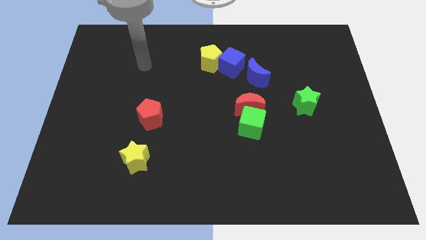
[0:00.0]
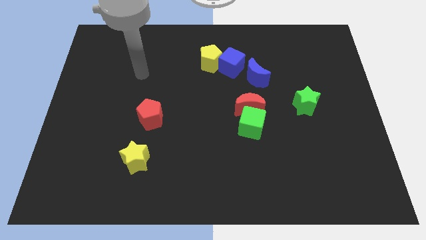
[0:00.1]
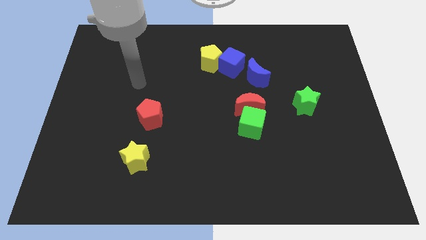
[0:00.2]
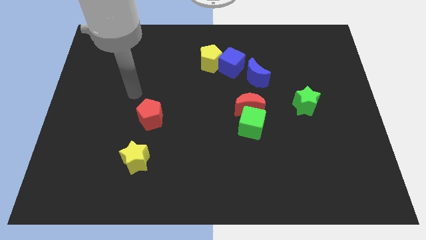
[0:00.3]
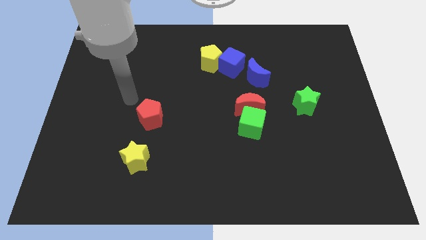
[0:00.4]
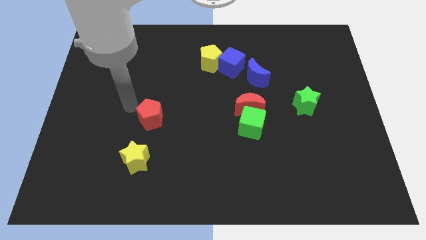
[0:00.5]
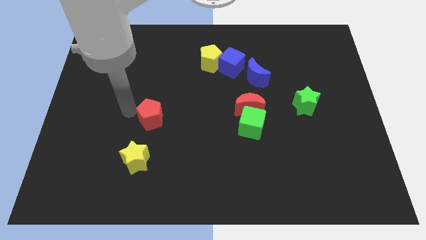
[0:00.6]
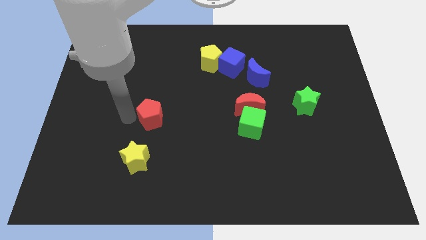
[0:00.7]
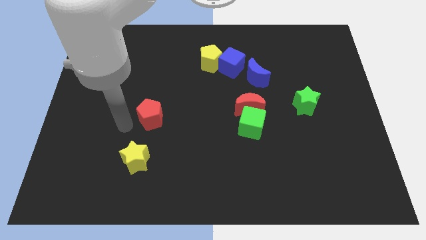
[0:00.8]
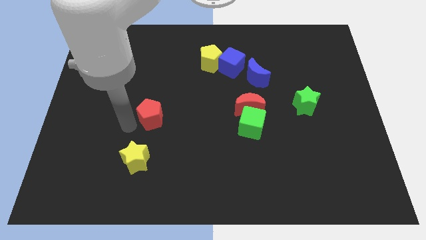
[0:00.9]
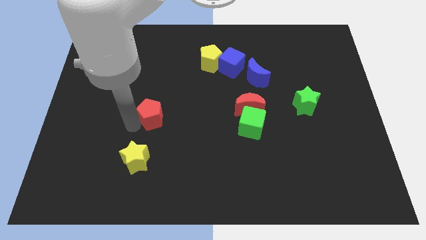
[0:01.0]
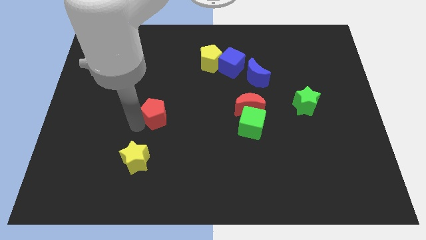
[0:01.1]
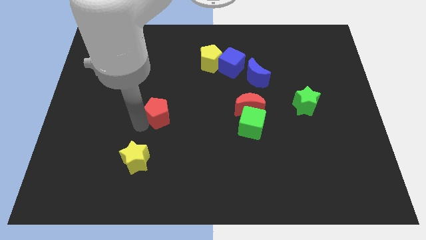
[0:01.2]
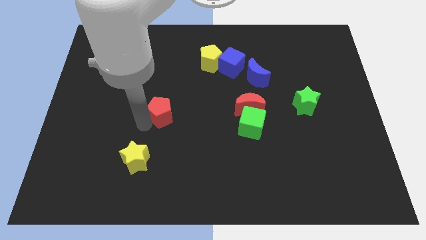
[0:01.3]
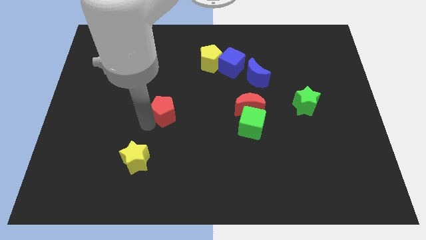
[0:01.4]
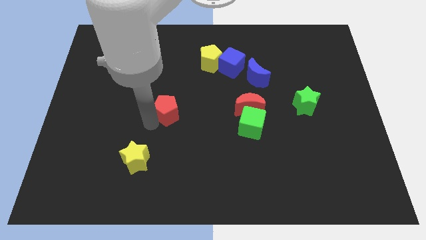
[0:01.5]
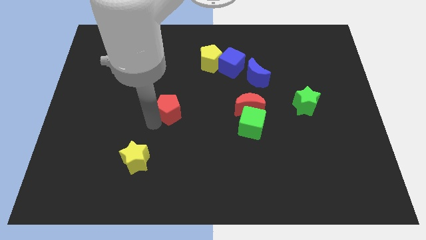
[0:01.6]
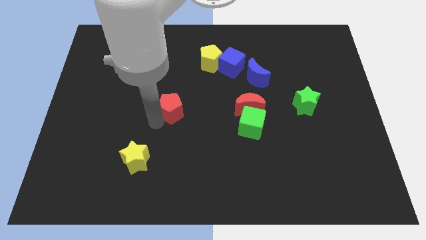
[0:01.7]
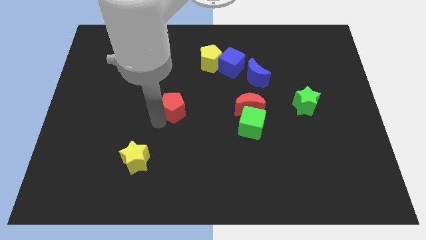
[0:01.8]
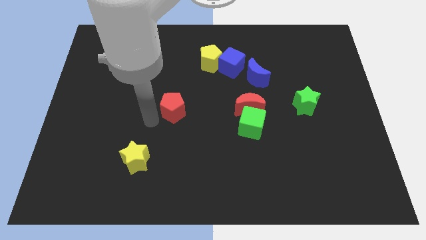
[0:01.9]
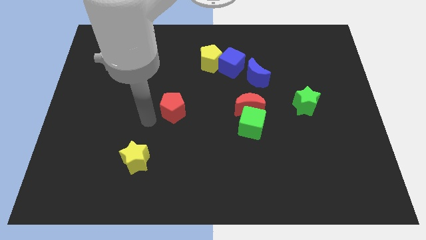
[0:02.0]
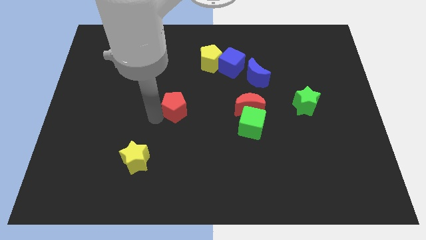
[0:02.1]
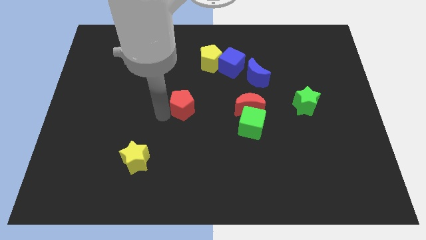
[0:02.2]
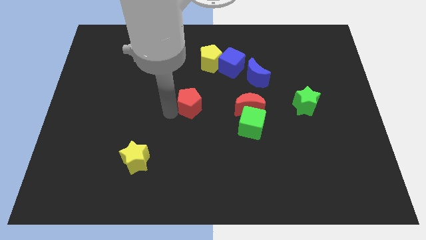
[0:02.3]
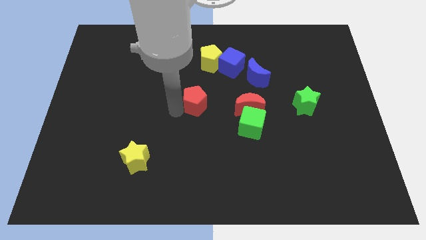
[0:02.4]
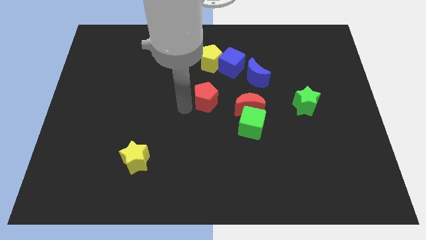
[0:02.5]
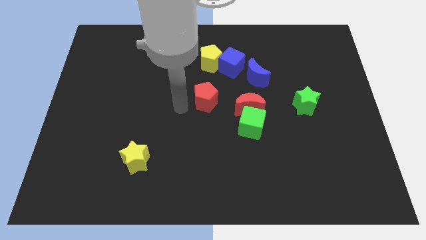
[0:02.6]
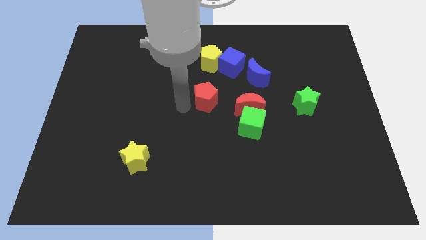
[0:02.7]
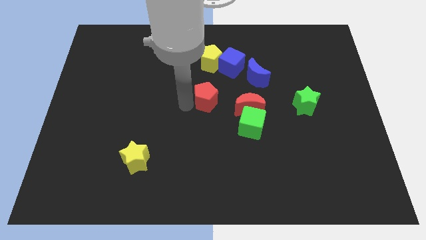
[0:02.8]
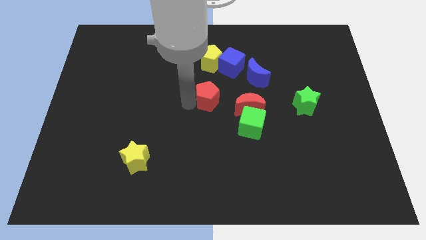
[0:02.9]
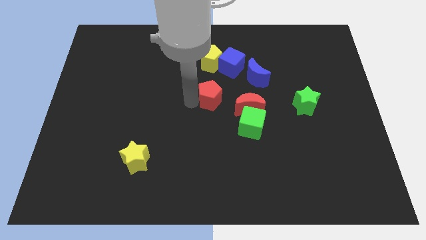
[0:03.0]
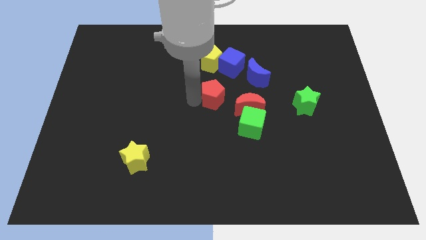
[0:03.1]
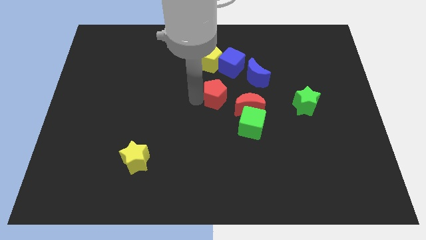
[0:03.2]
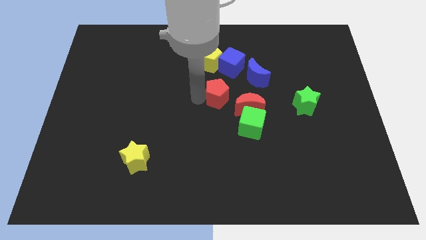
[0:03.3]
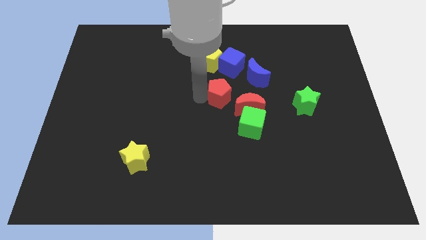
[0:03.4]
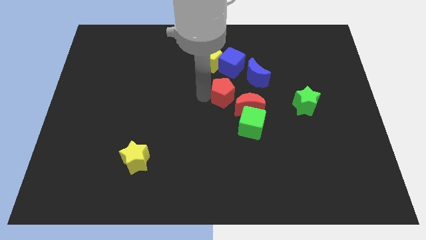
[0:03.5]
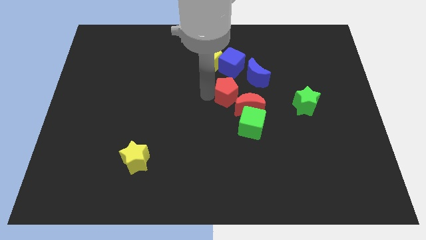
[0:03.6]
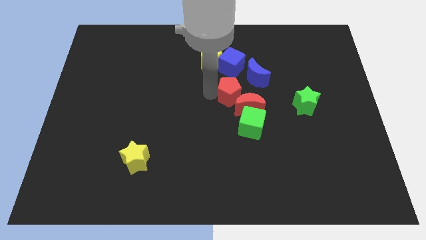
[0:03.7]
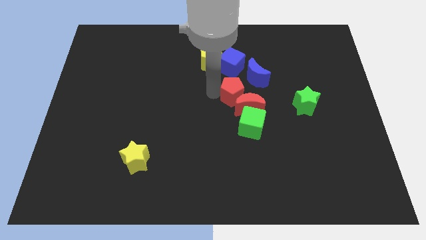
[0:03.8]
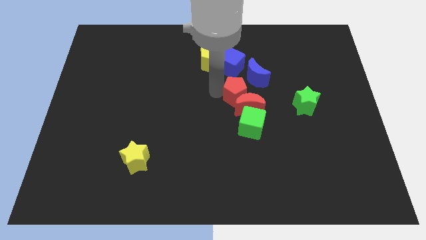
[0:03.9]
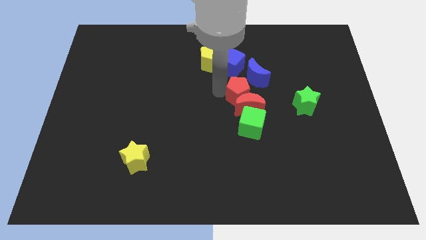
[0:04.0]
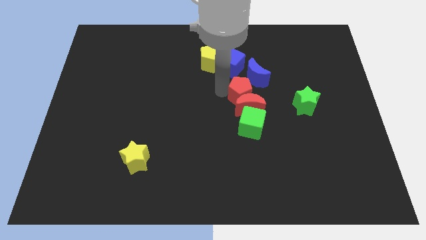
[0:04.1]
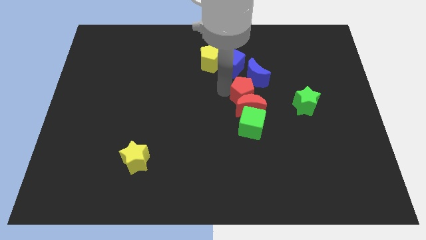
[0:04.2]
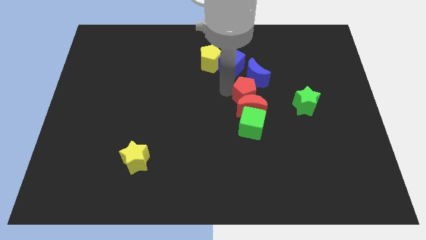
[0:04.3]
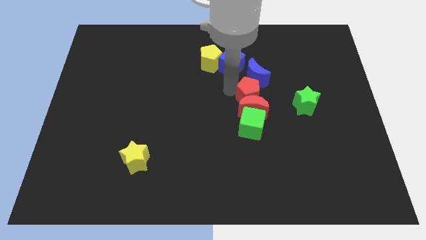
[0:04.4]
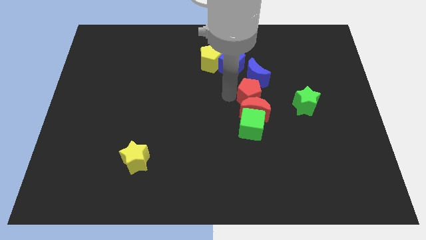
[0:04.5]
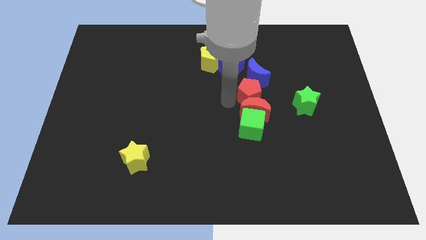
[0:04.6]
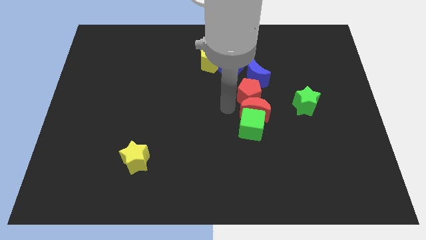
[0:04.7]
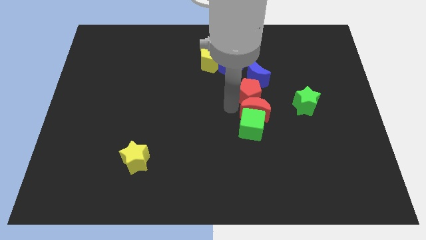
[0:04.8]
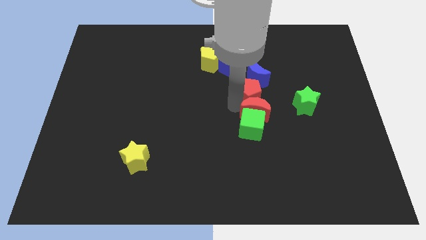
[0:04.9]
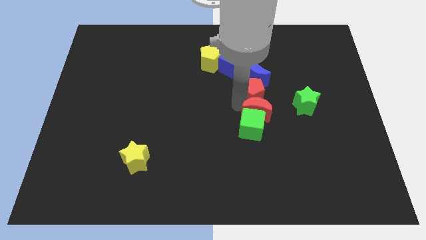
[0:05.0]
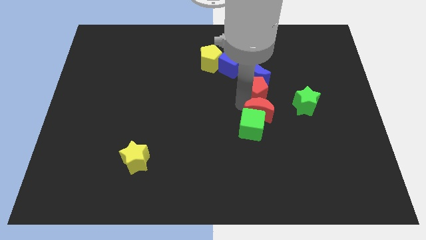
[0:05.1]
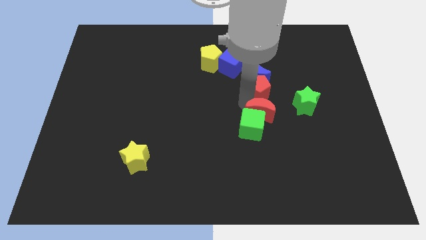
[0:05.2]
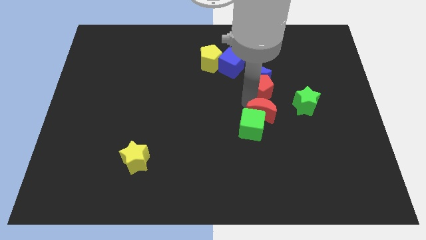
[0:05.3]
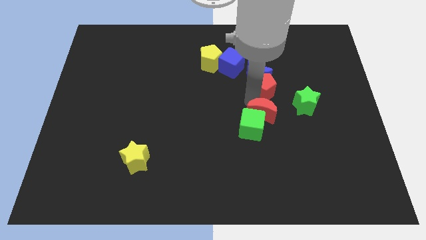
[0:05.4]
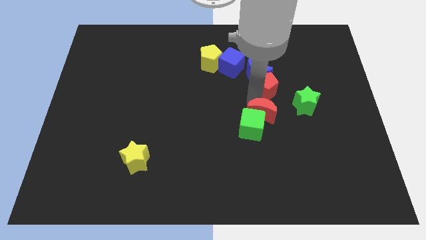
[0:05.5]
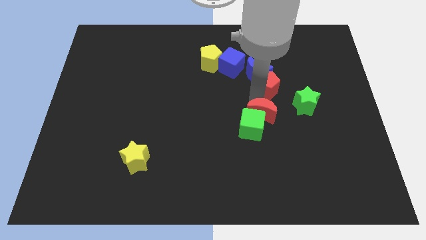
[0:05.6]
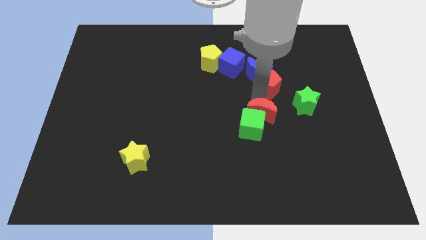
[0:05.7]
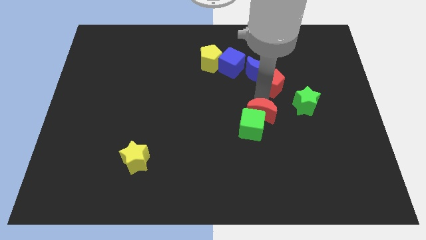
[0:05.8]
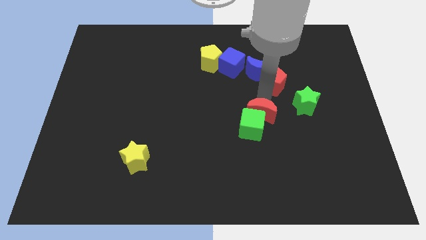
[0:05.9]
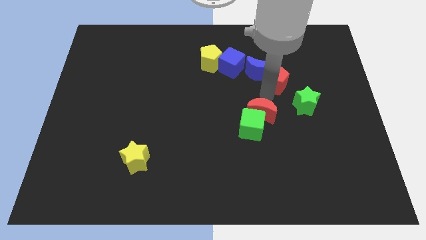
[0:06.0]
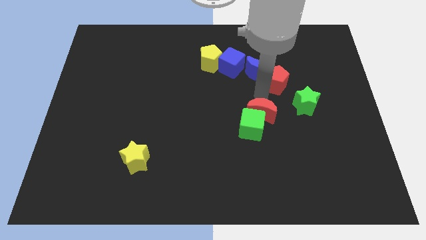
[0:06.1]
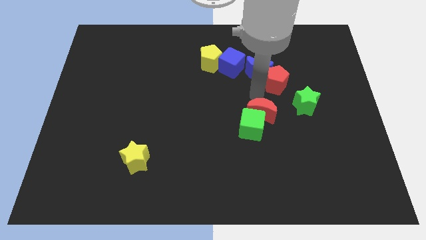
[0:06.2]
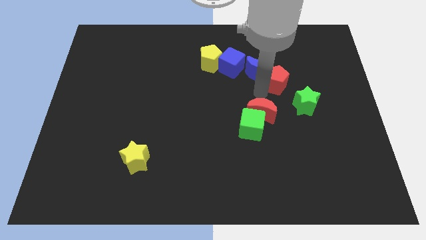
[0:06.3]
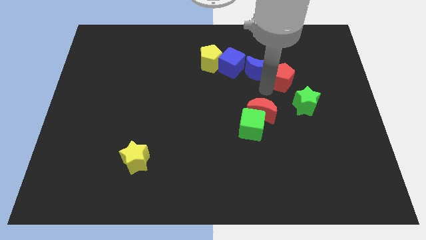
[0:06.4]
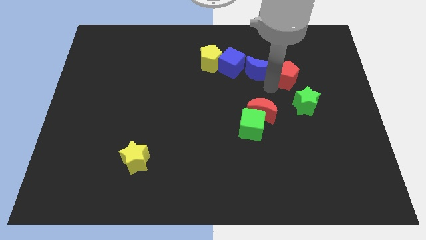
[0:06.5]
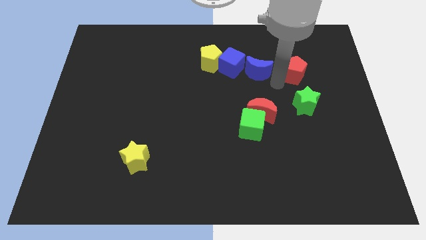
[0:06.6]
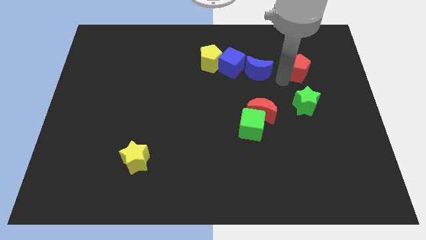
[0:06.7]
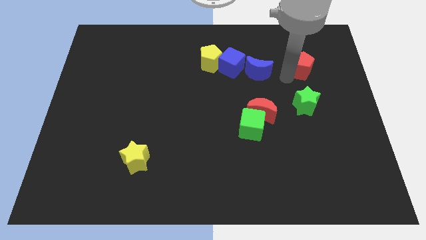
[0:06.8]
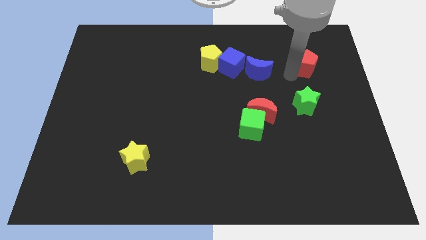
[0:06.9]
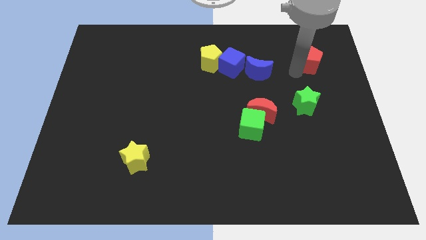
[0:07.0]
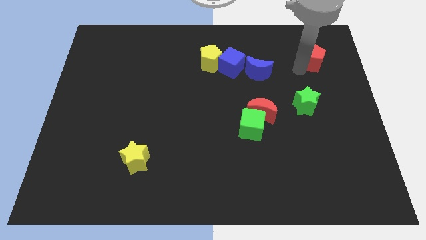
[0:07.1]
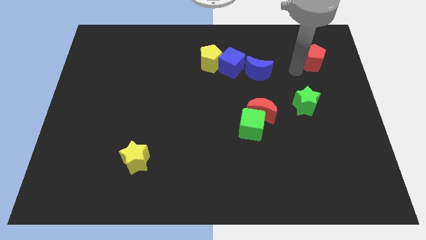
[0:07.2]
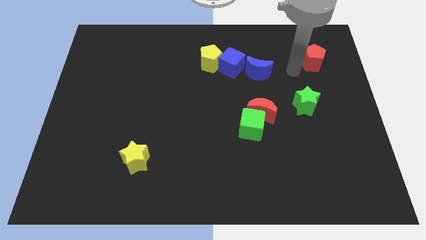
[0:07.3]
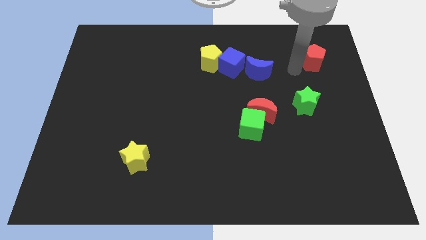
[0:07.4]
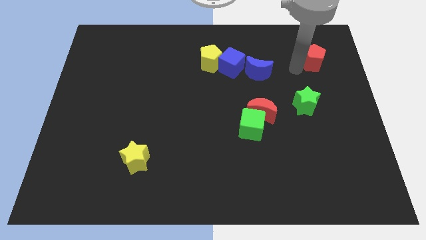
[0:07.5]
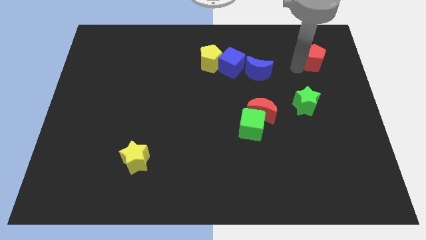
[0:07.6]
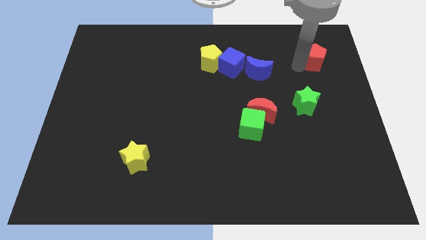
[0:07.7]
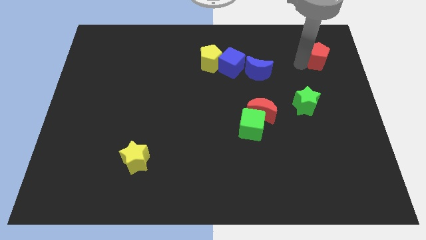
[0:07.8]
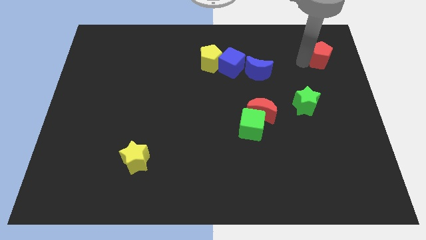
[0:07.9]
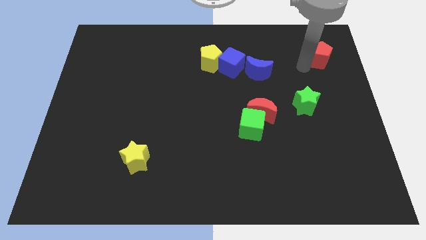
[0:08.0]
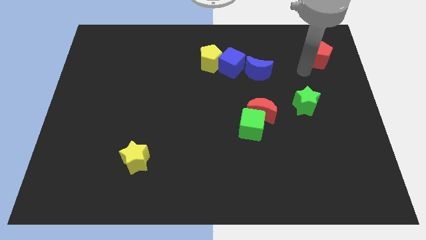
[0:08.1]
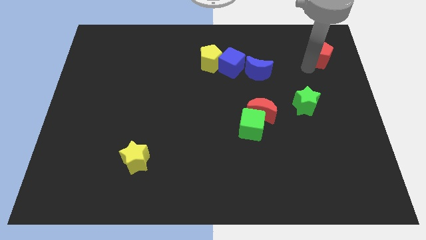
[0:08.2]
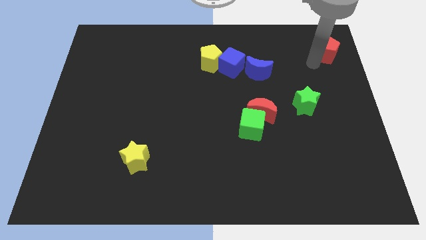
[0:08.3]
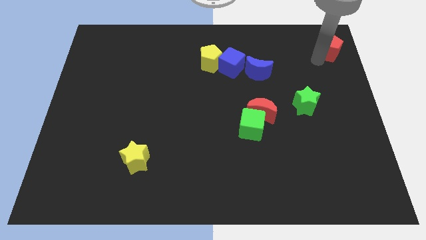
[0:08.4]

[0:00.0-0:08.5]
move the red pentagon to the top right corner
